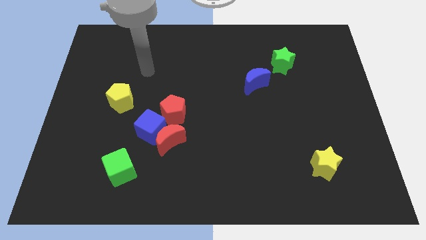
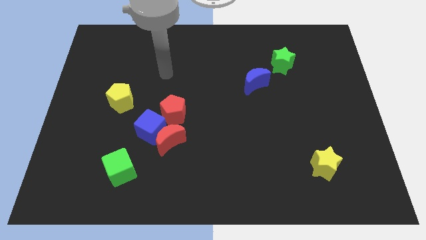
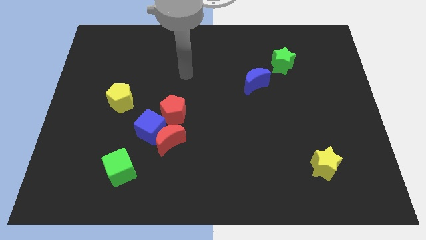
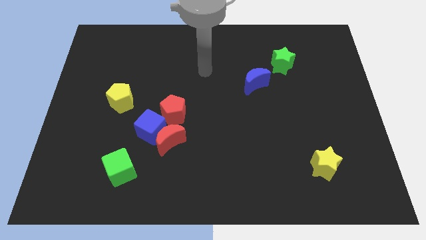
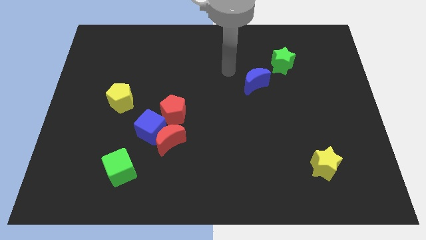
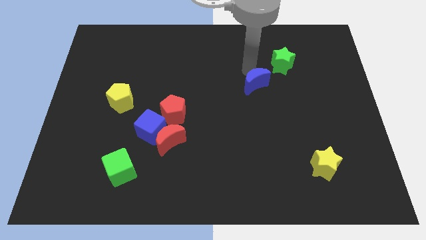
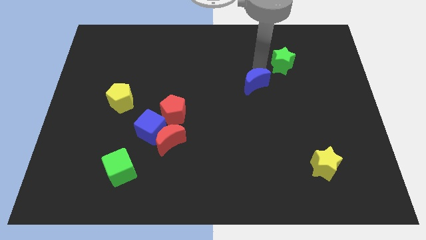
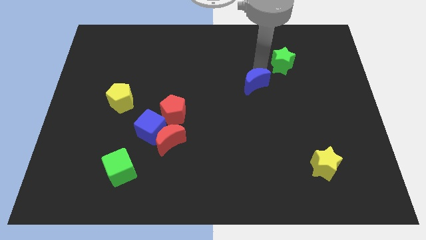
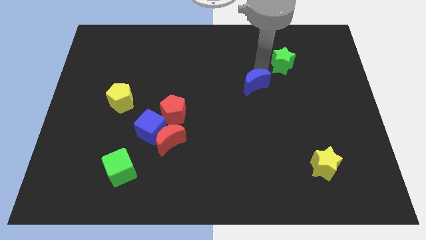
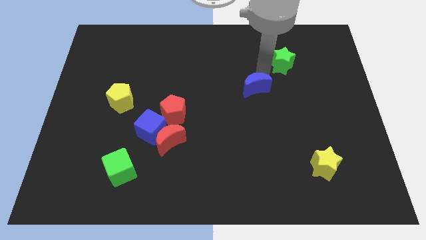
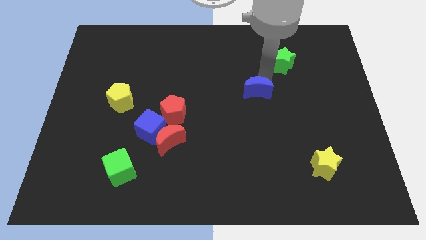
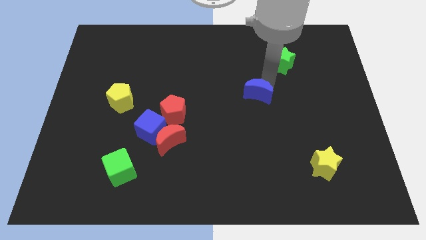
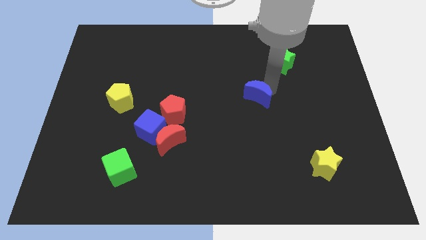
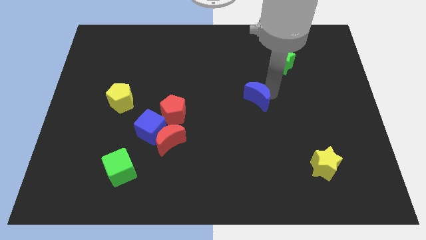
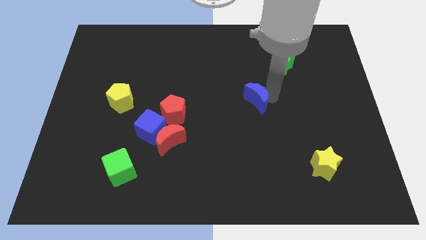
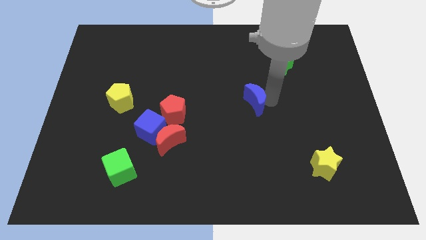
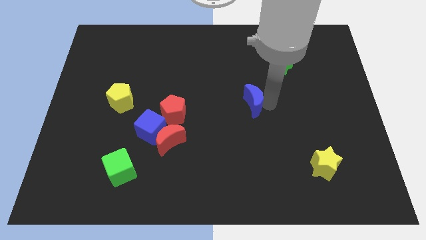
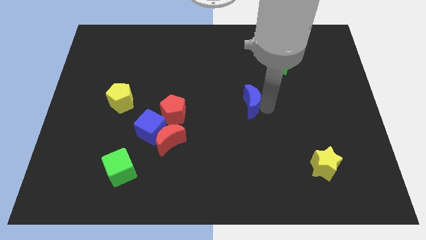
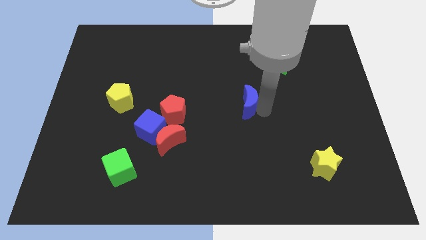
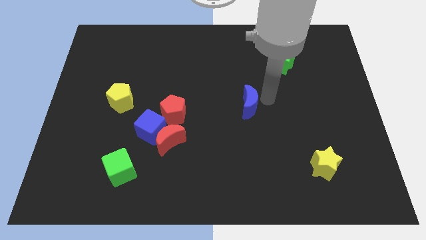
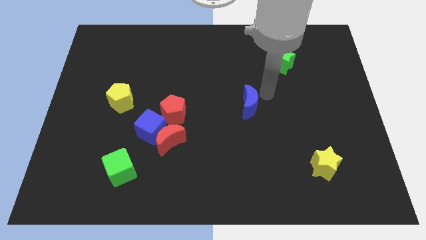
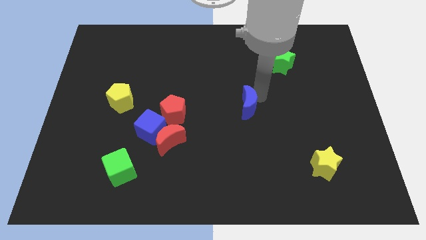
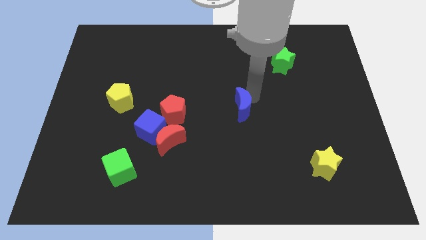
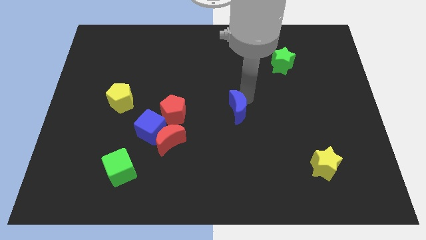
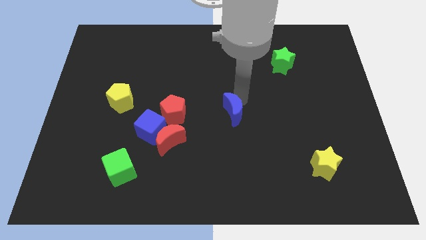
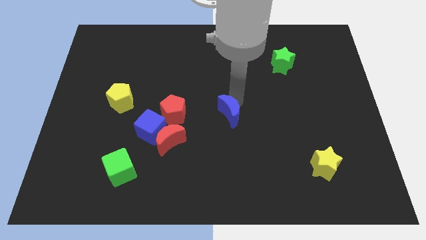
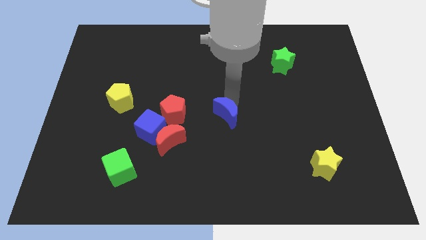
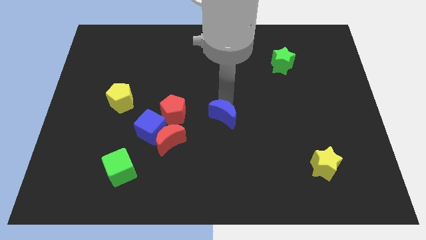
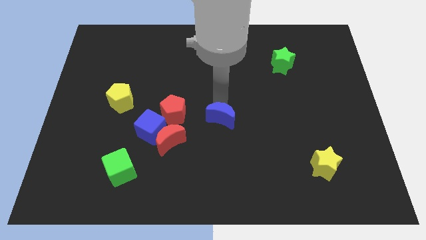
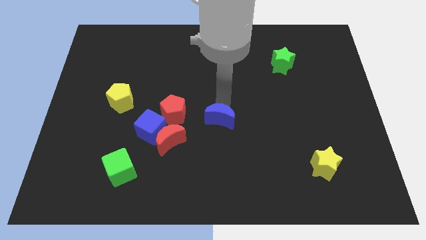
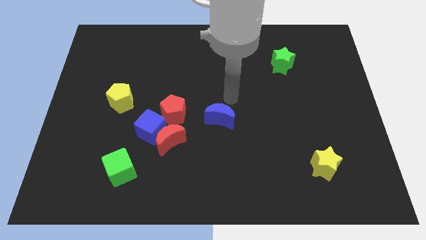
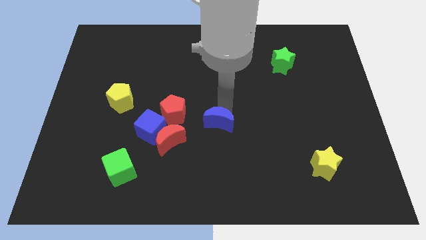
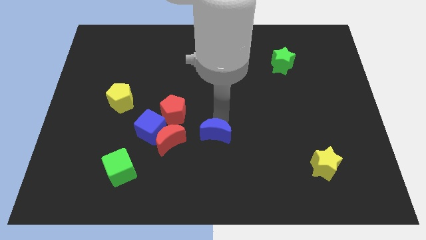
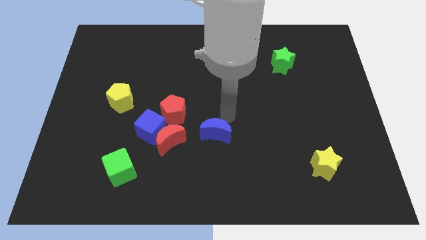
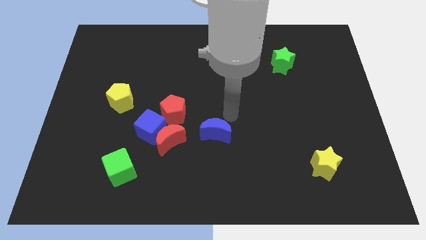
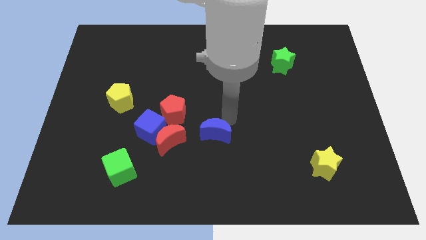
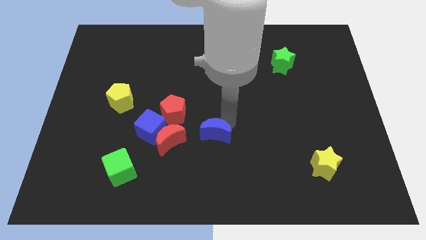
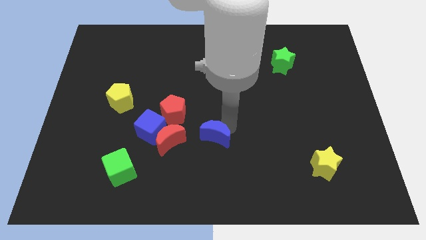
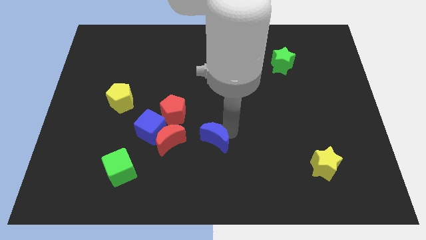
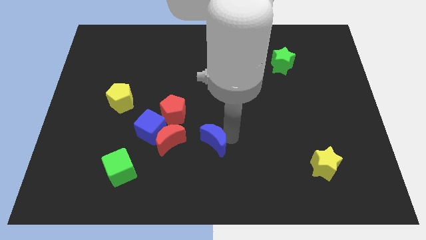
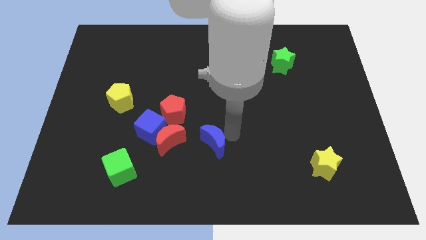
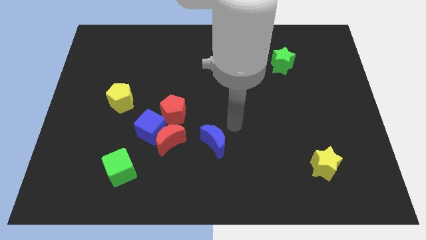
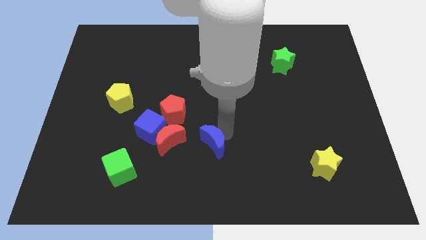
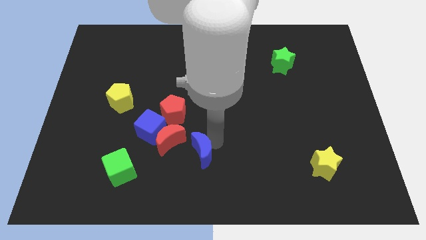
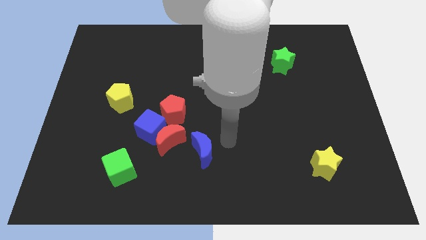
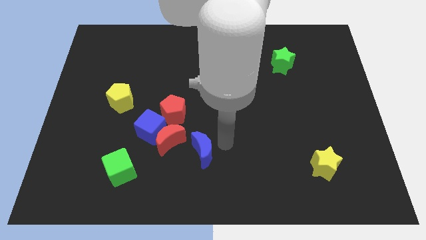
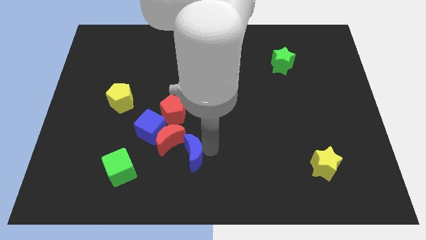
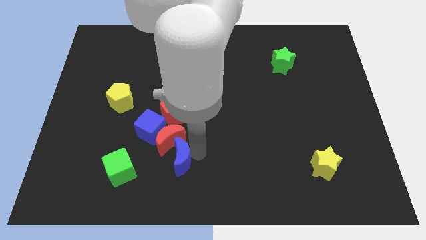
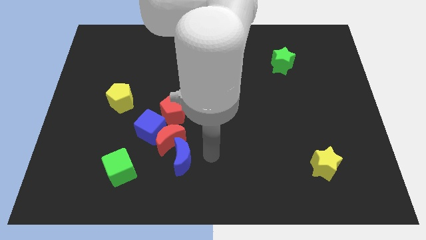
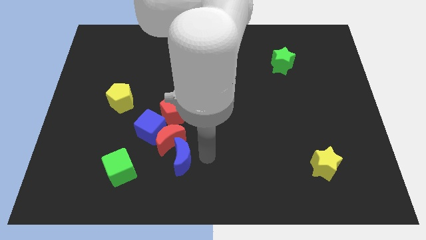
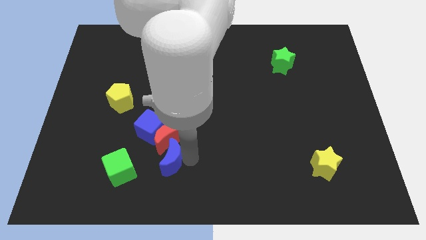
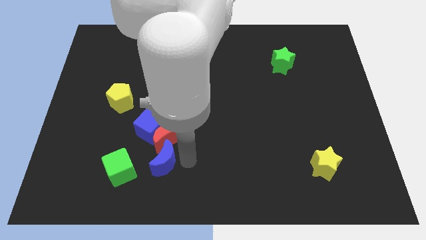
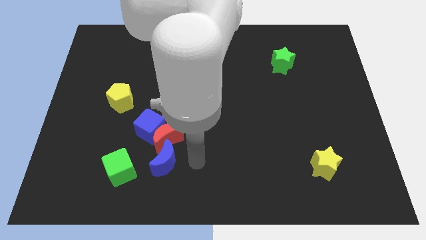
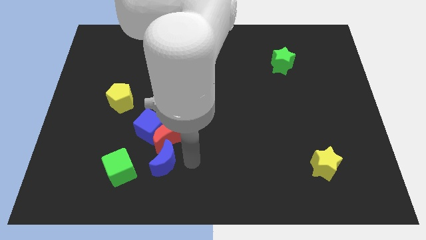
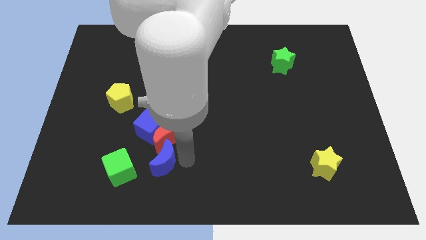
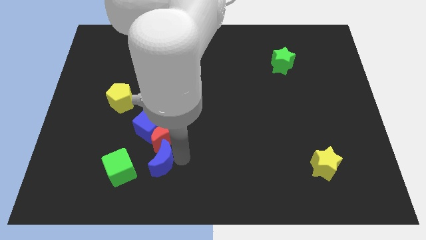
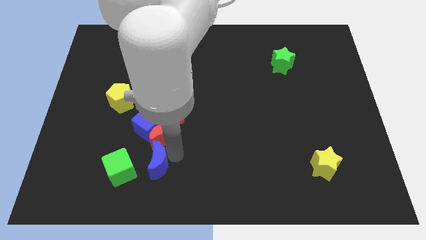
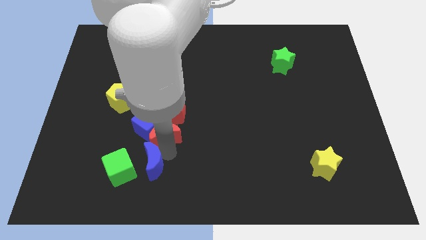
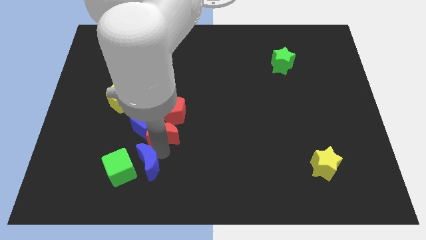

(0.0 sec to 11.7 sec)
push the blue moon next to the green cube

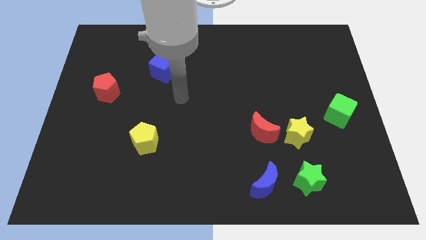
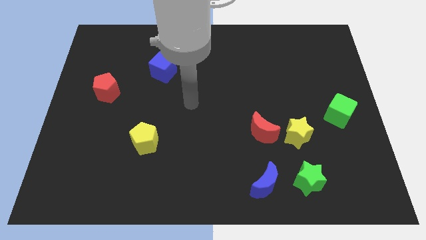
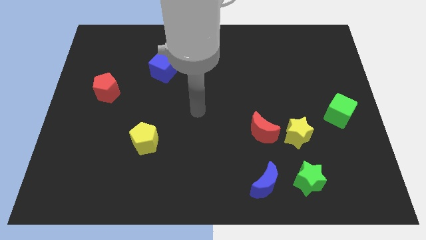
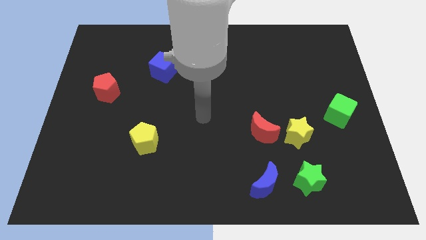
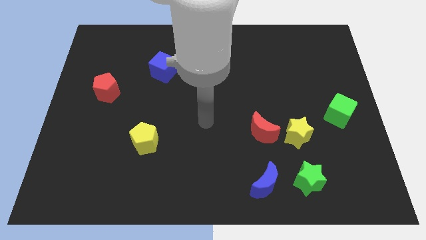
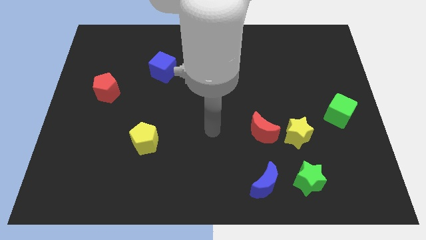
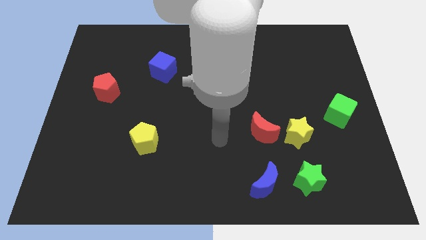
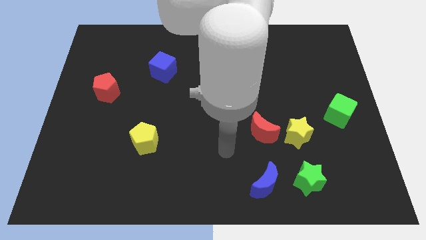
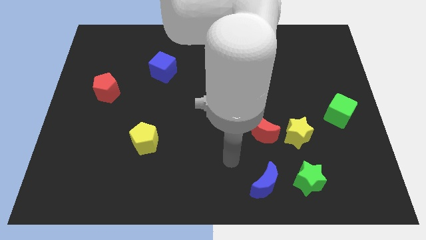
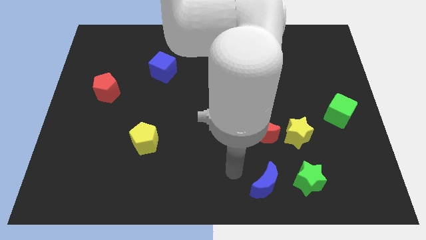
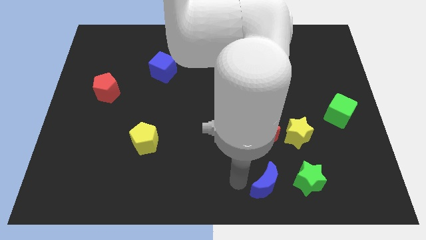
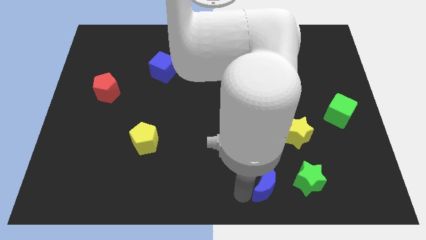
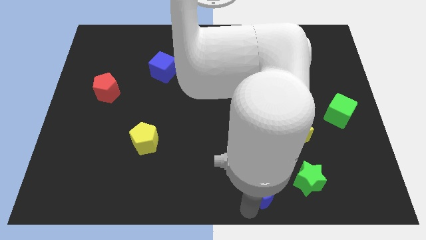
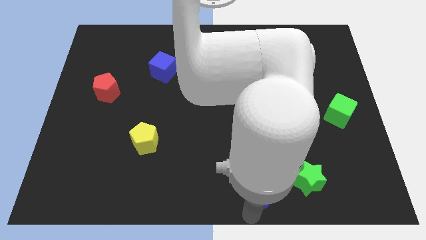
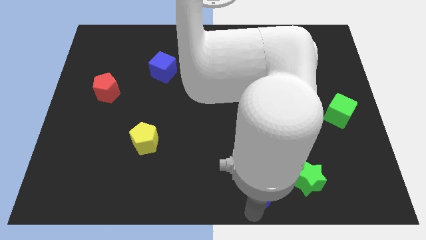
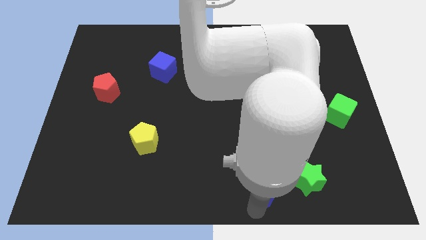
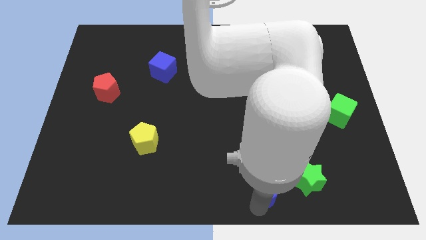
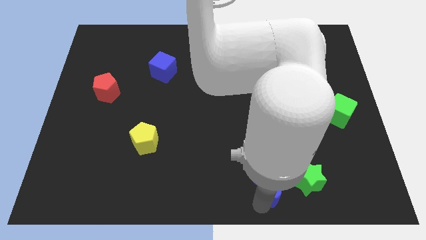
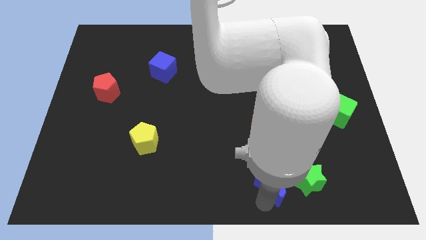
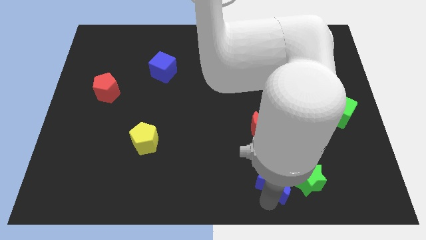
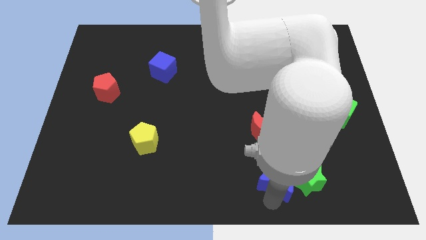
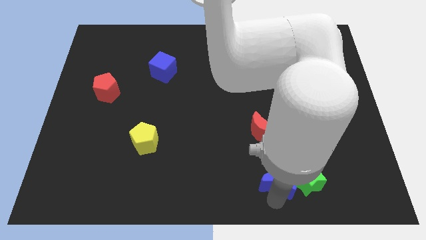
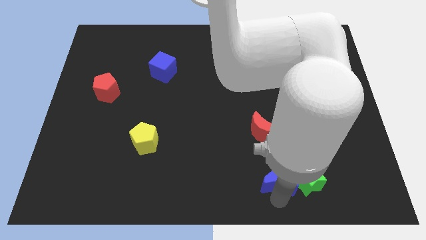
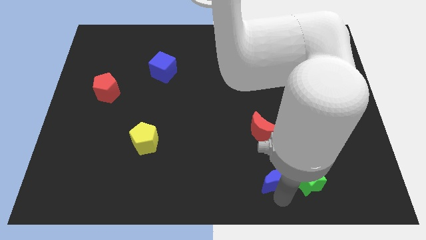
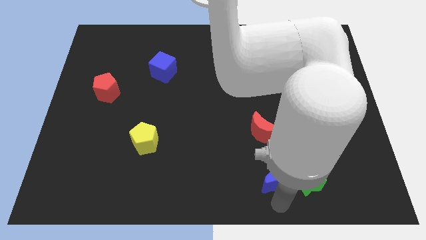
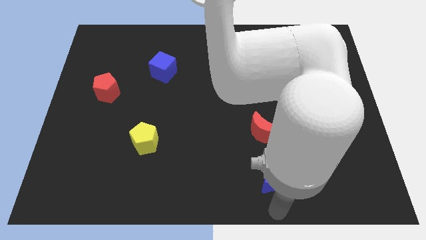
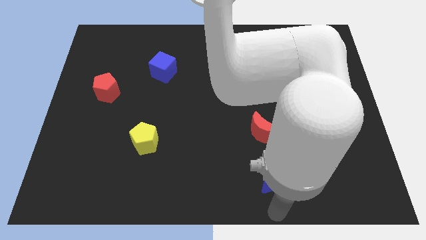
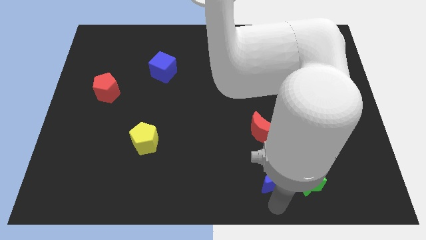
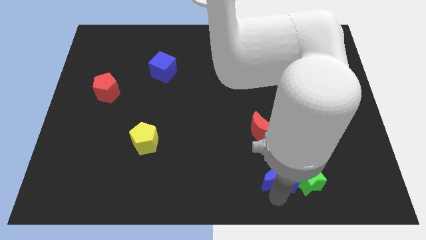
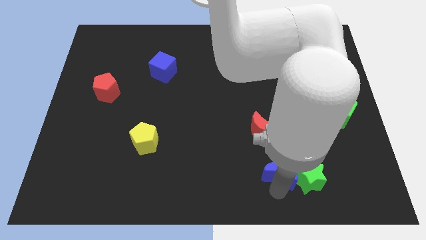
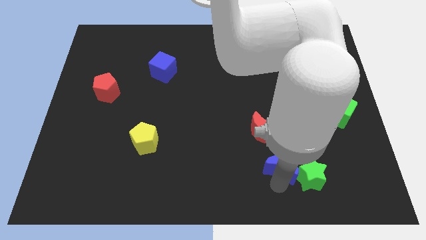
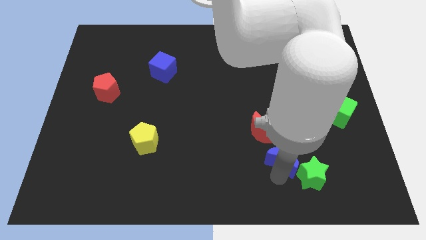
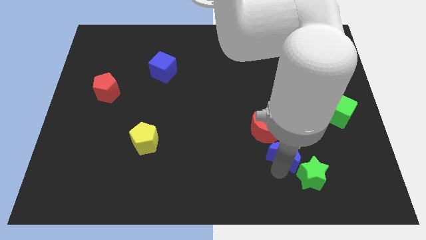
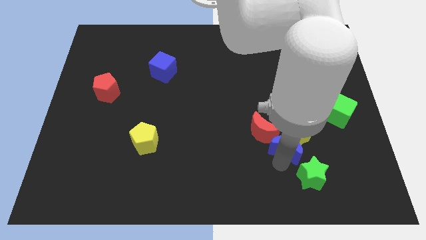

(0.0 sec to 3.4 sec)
slide the blue moon towards the yellow star
